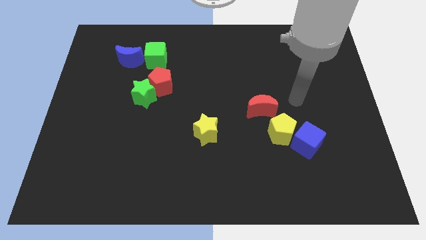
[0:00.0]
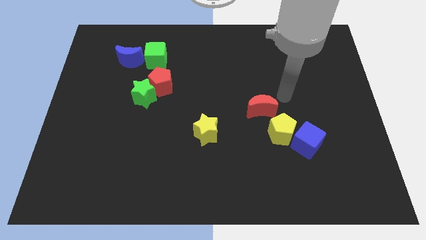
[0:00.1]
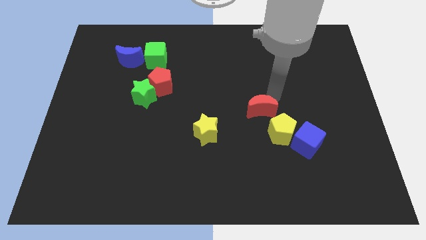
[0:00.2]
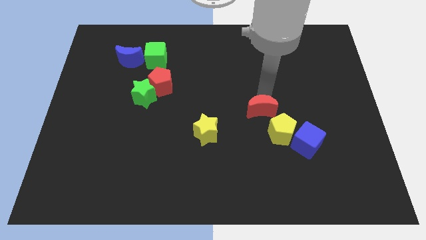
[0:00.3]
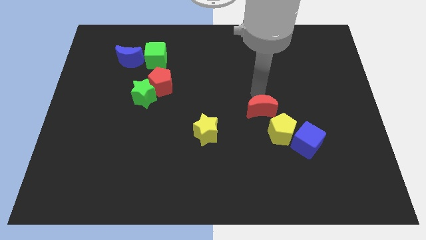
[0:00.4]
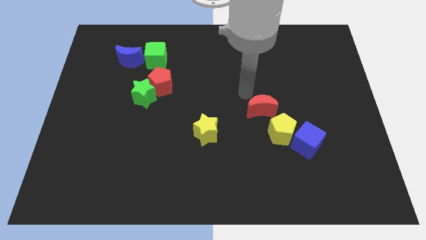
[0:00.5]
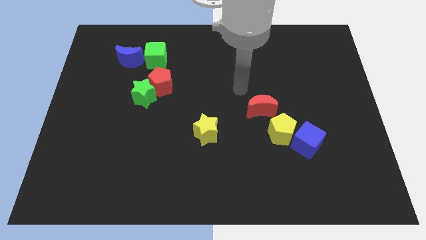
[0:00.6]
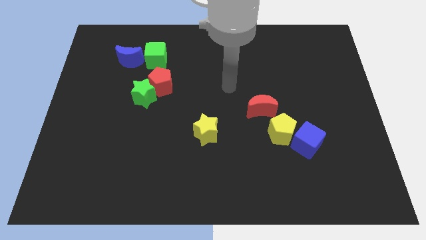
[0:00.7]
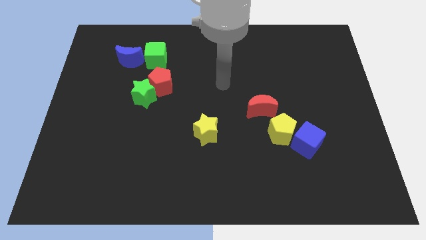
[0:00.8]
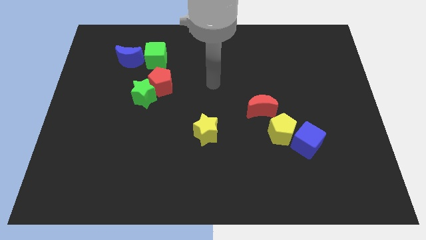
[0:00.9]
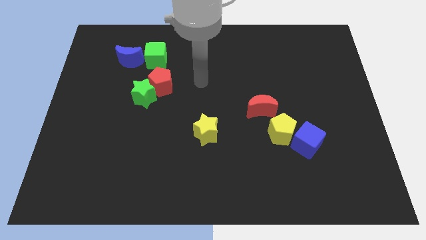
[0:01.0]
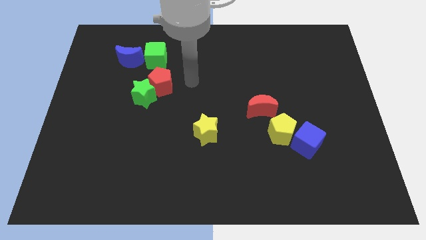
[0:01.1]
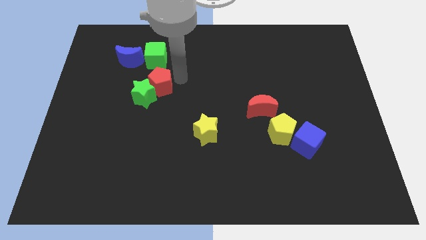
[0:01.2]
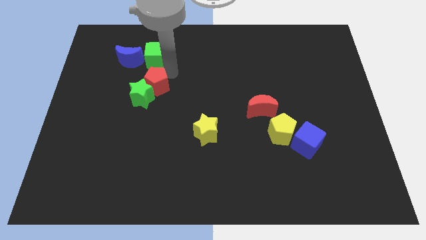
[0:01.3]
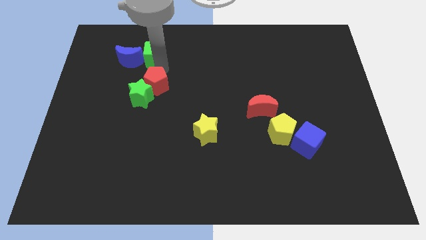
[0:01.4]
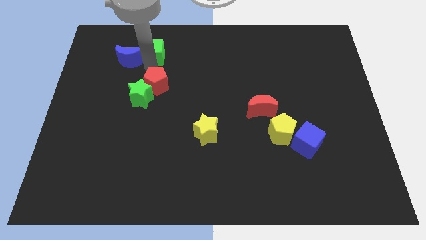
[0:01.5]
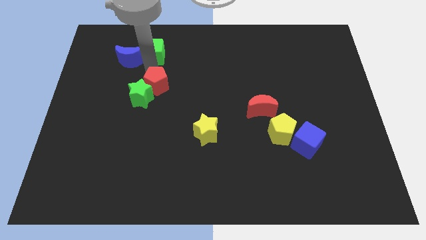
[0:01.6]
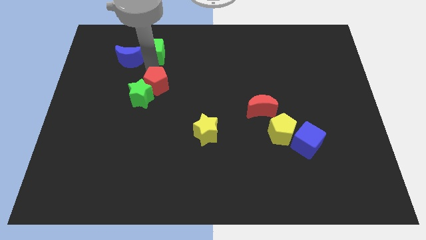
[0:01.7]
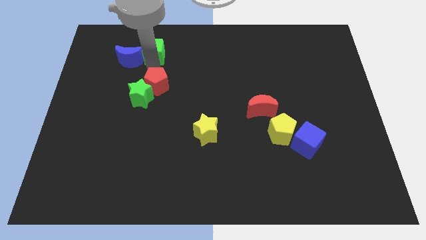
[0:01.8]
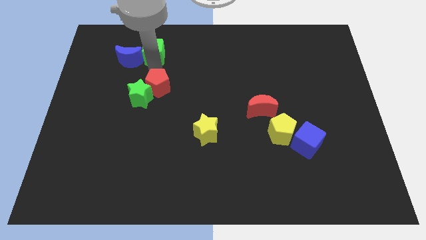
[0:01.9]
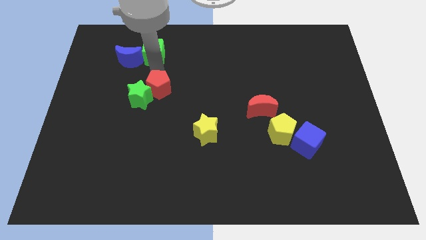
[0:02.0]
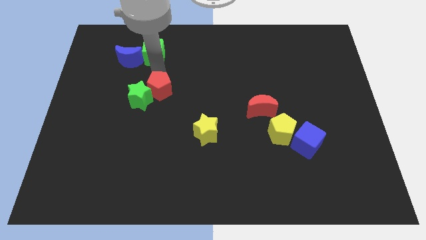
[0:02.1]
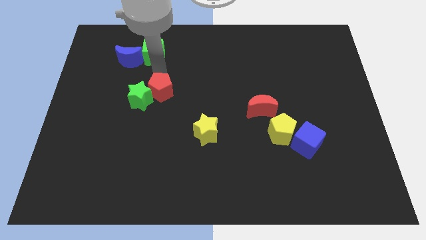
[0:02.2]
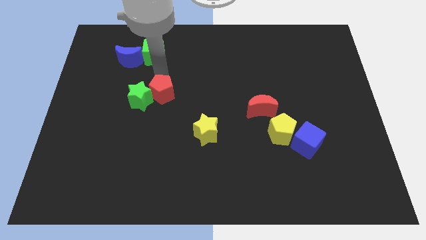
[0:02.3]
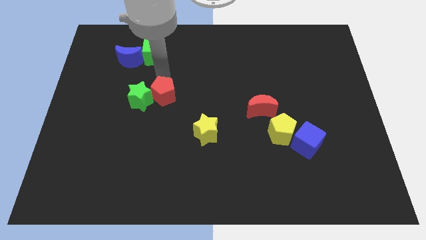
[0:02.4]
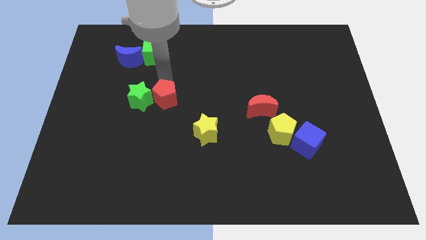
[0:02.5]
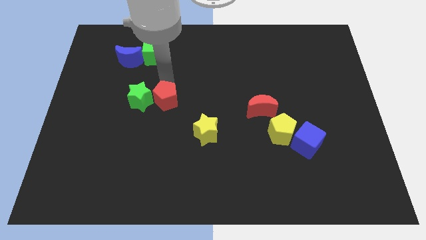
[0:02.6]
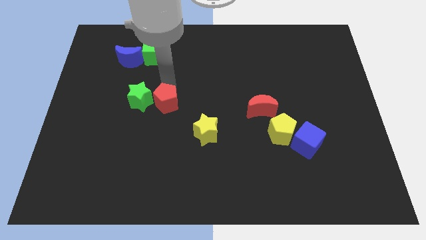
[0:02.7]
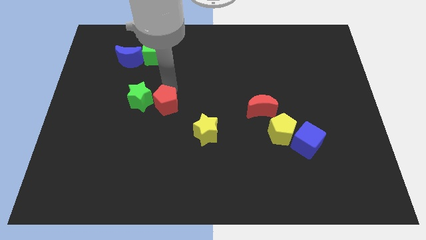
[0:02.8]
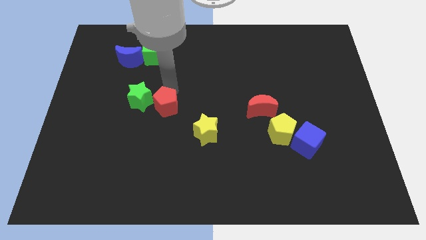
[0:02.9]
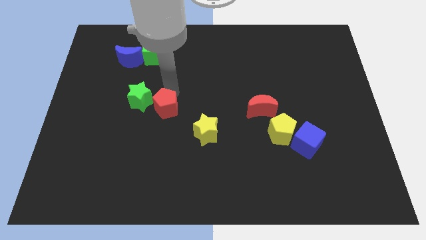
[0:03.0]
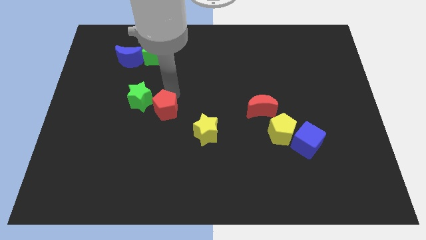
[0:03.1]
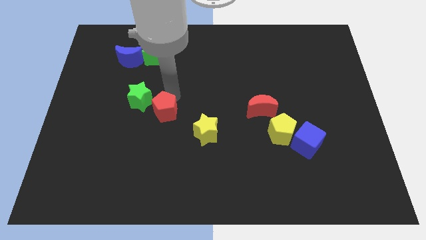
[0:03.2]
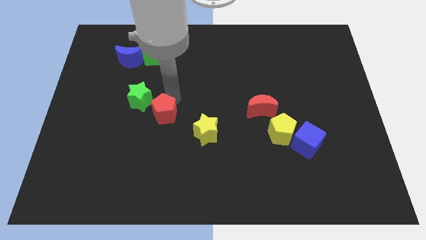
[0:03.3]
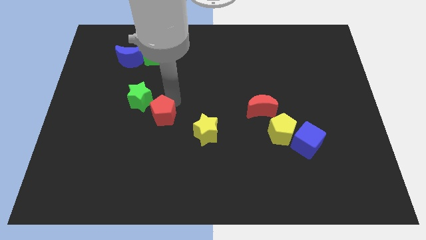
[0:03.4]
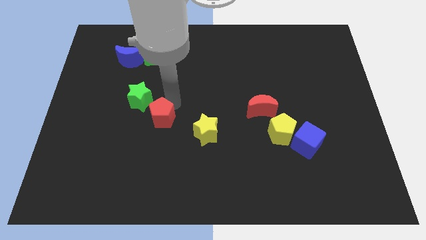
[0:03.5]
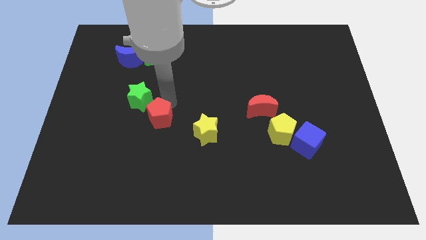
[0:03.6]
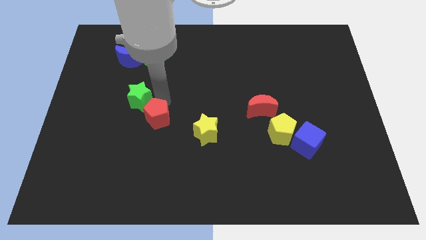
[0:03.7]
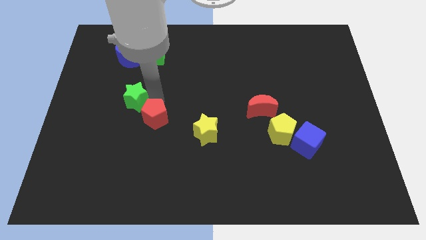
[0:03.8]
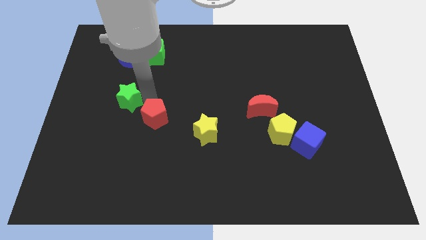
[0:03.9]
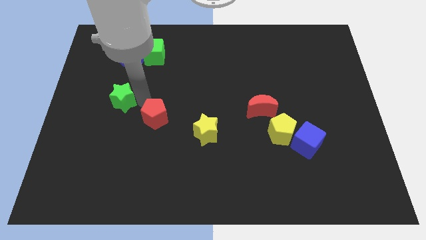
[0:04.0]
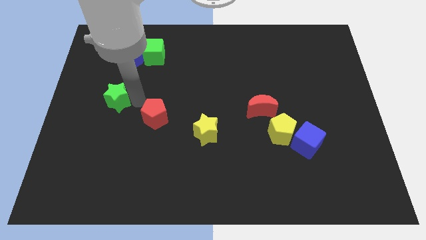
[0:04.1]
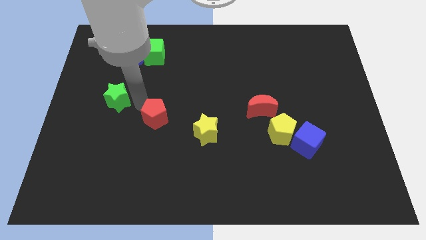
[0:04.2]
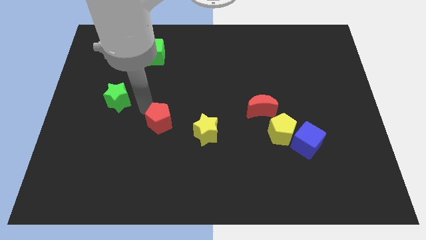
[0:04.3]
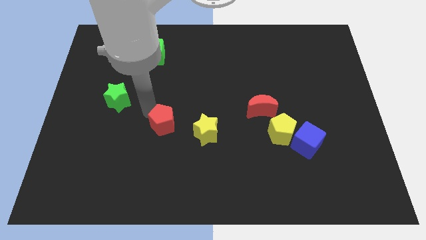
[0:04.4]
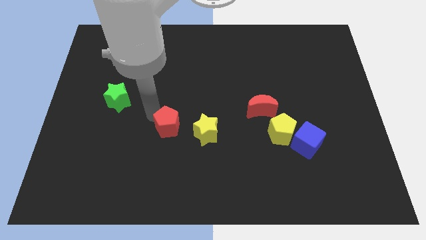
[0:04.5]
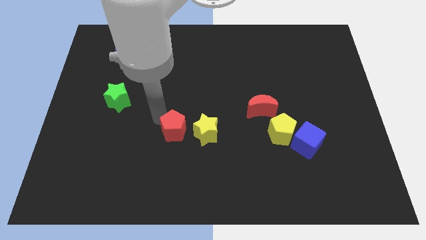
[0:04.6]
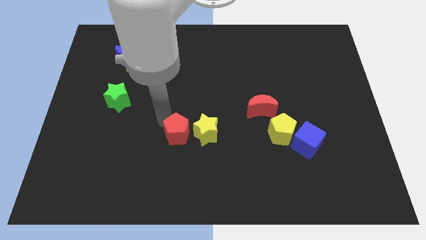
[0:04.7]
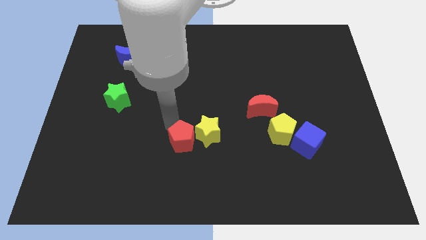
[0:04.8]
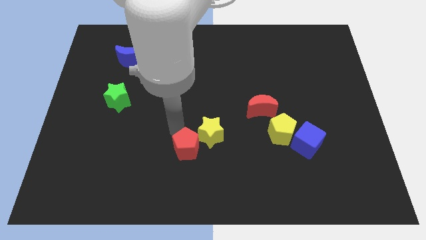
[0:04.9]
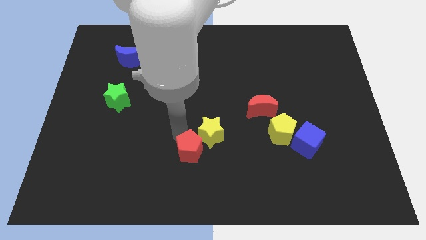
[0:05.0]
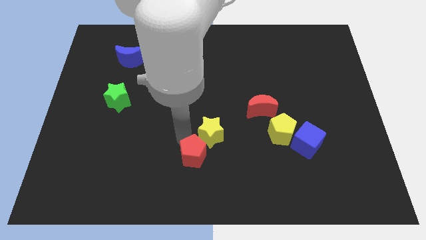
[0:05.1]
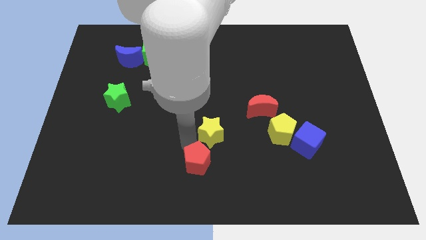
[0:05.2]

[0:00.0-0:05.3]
push the red pentagon to the bottom side

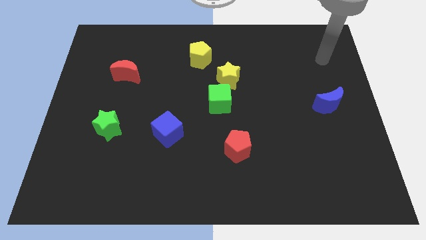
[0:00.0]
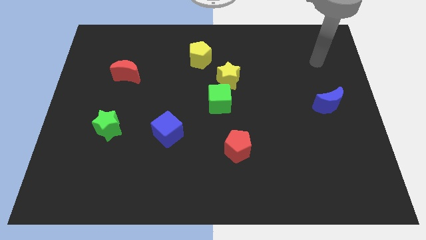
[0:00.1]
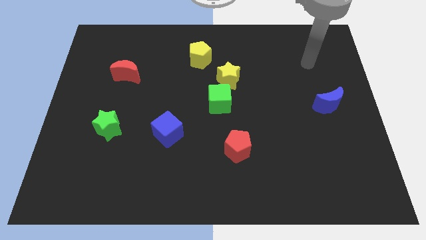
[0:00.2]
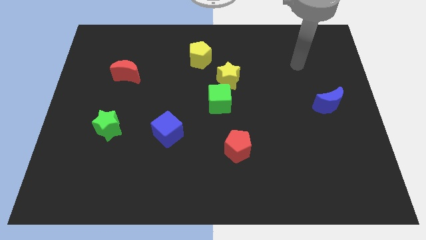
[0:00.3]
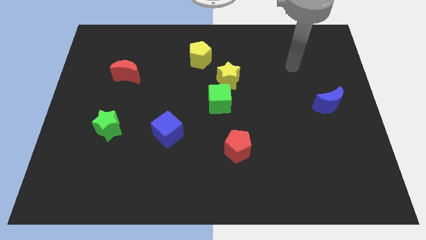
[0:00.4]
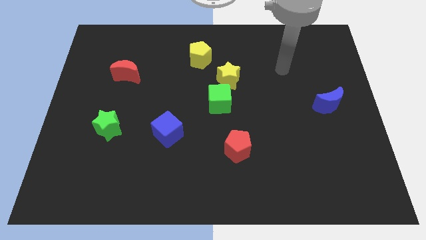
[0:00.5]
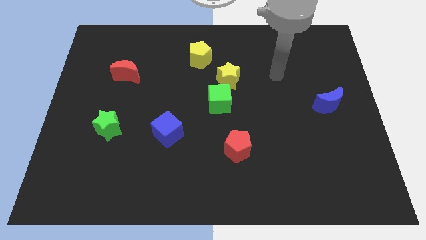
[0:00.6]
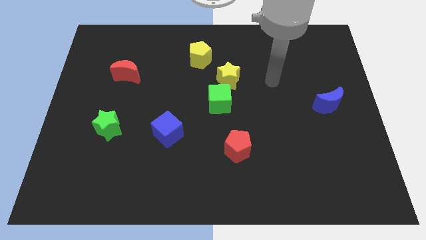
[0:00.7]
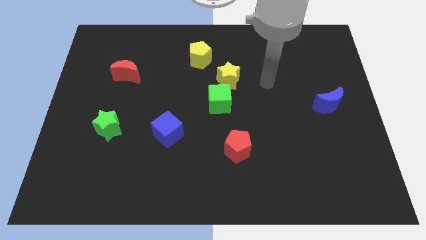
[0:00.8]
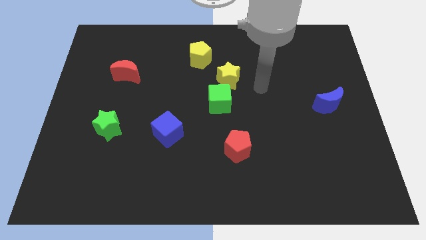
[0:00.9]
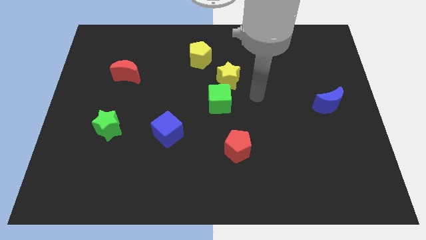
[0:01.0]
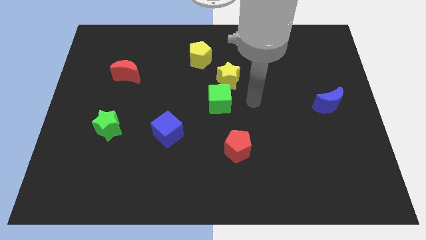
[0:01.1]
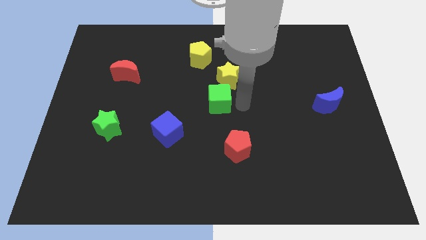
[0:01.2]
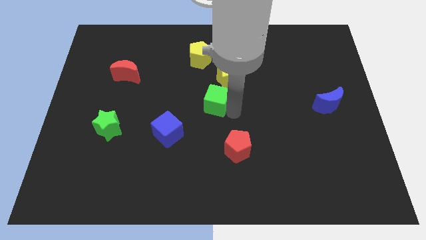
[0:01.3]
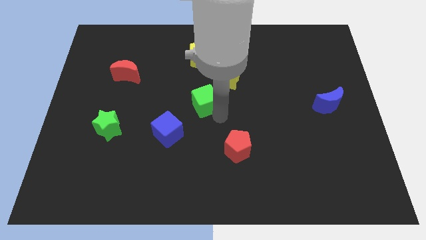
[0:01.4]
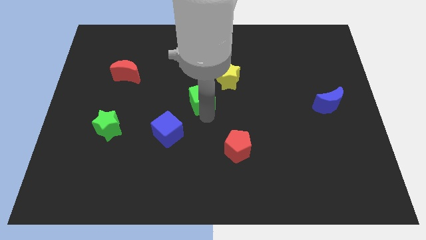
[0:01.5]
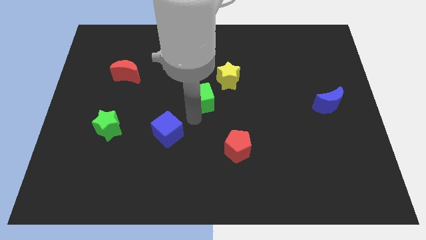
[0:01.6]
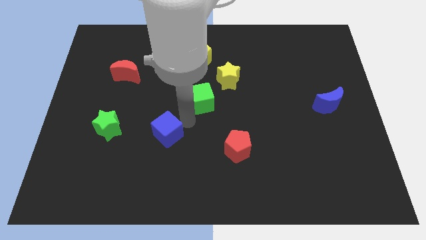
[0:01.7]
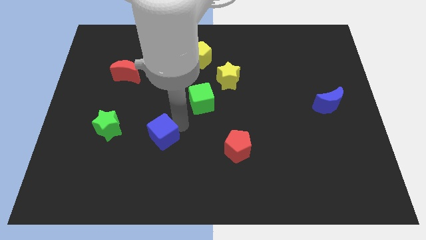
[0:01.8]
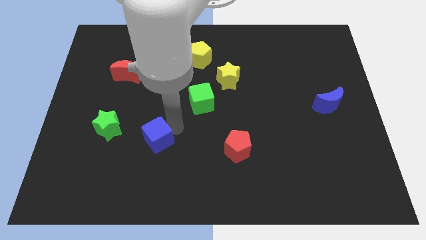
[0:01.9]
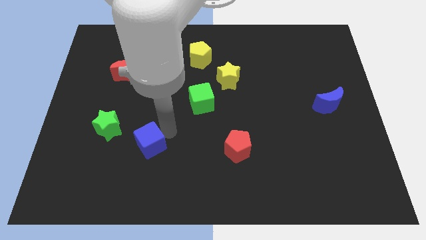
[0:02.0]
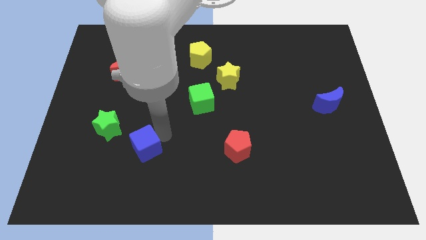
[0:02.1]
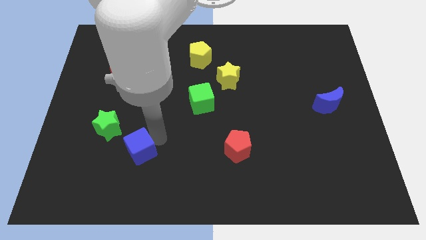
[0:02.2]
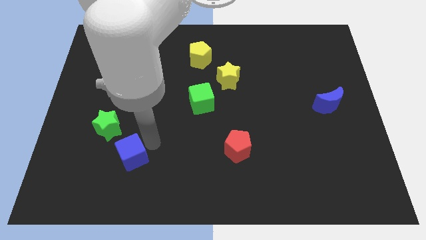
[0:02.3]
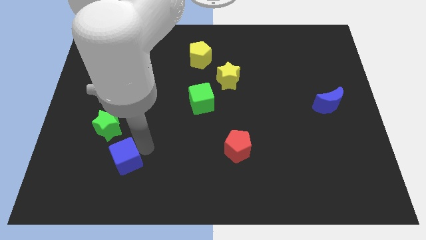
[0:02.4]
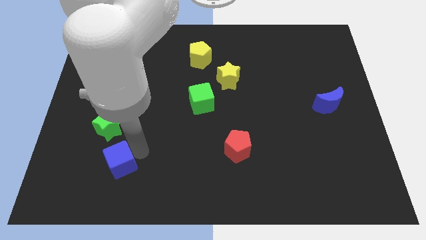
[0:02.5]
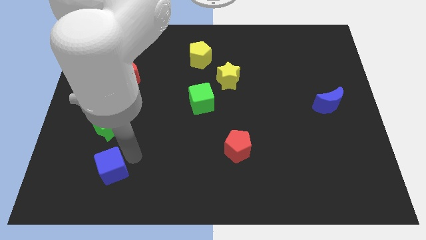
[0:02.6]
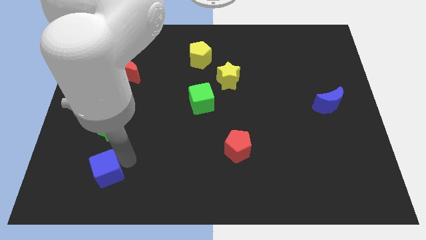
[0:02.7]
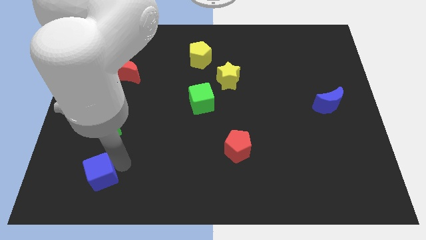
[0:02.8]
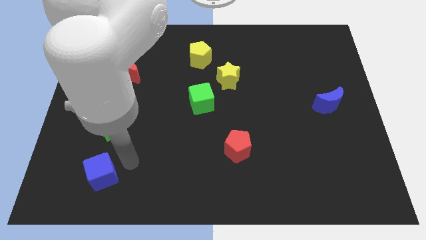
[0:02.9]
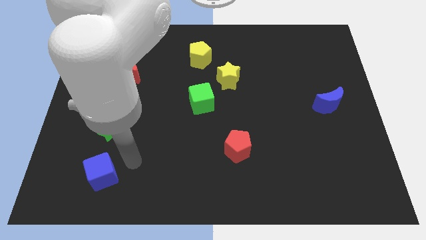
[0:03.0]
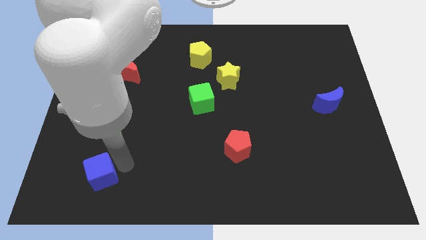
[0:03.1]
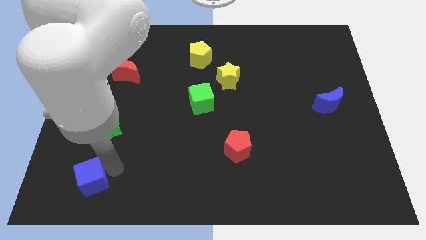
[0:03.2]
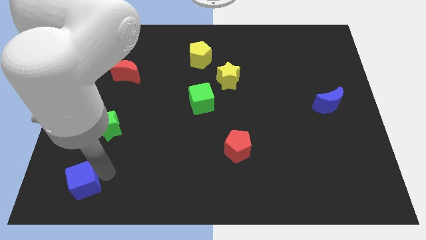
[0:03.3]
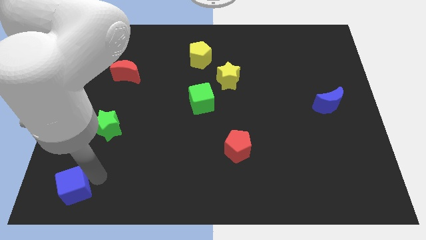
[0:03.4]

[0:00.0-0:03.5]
put the blue cube to the bottom left of the board
